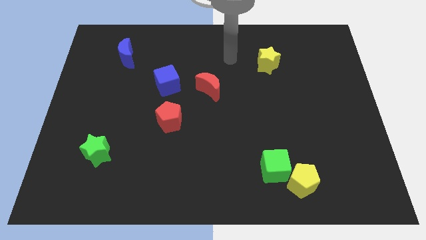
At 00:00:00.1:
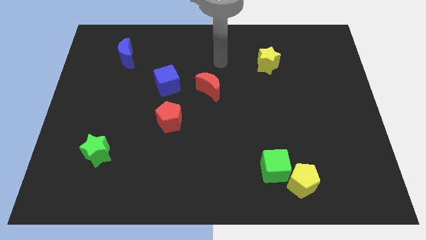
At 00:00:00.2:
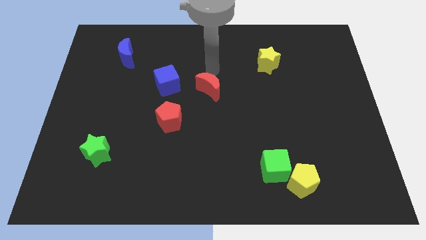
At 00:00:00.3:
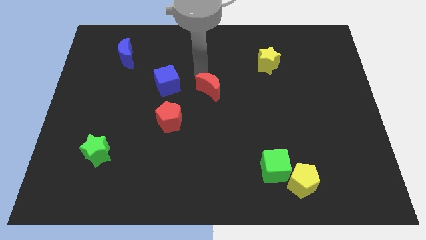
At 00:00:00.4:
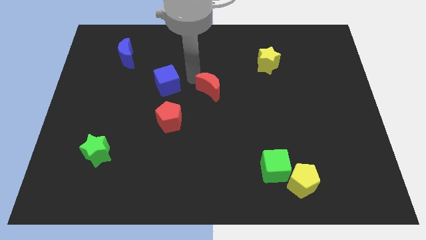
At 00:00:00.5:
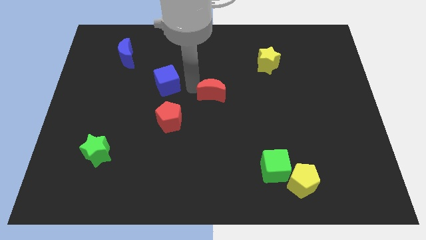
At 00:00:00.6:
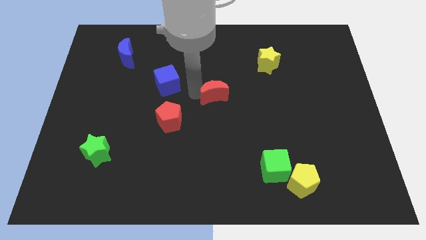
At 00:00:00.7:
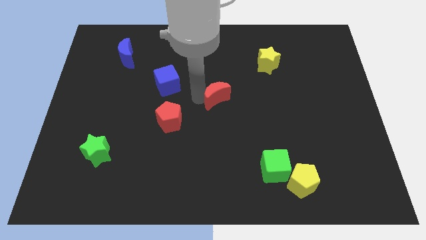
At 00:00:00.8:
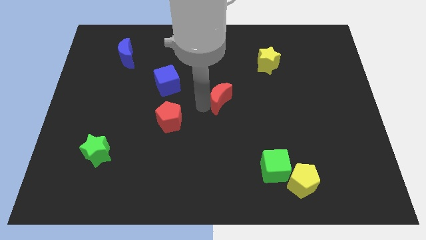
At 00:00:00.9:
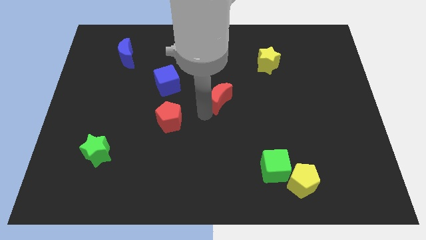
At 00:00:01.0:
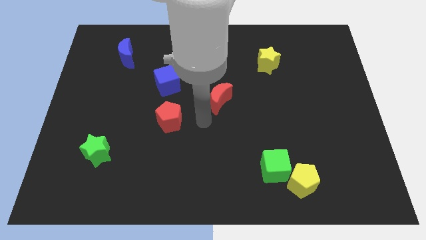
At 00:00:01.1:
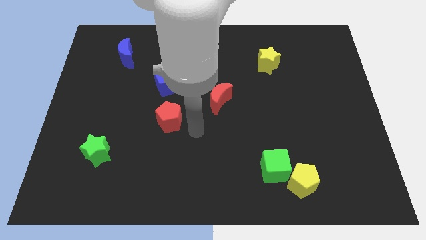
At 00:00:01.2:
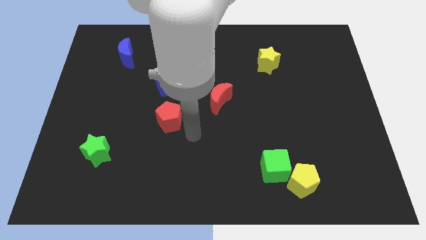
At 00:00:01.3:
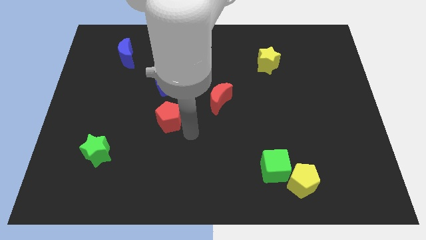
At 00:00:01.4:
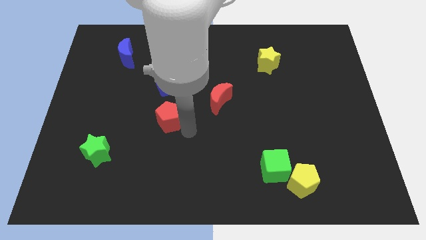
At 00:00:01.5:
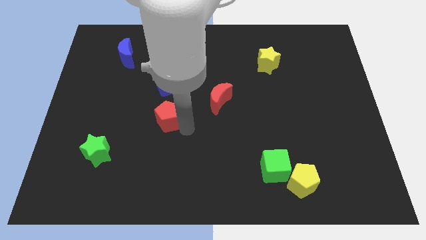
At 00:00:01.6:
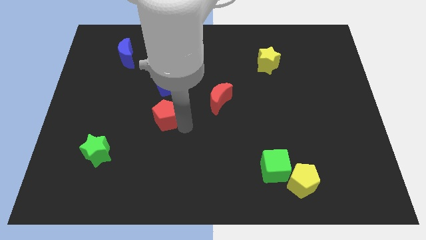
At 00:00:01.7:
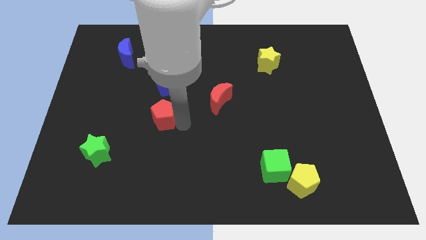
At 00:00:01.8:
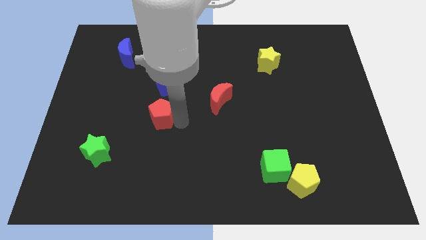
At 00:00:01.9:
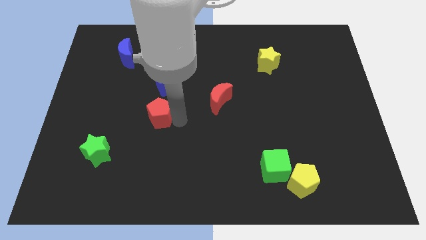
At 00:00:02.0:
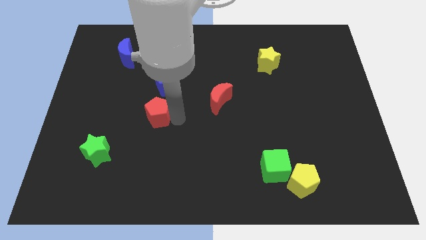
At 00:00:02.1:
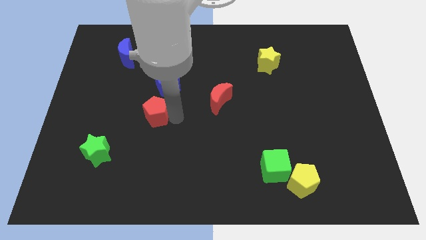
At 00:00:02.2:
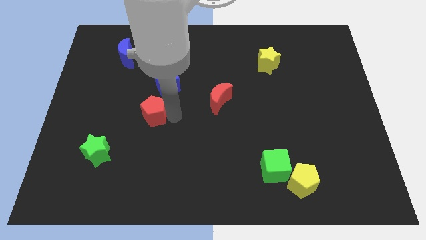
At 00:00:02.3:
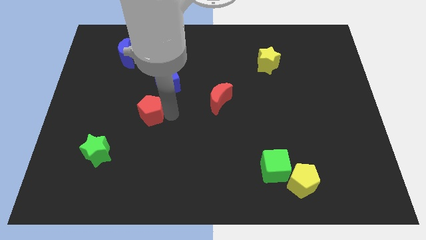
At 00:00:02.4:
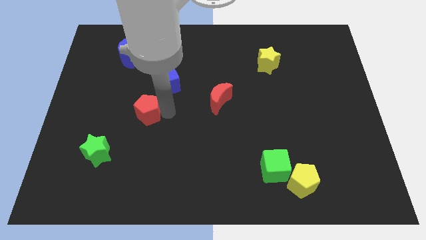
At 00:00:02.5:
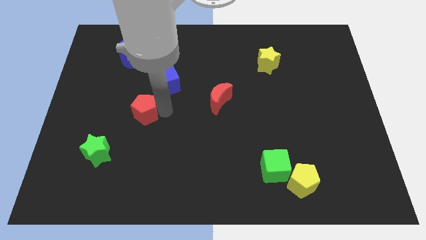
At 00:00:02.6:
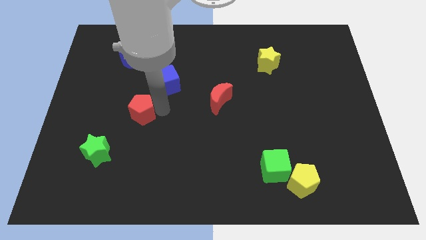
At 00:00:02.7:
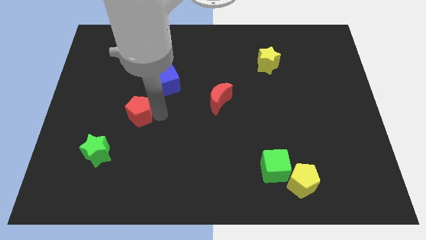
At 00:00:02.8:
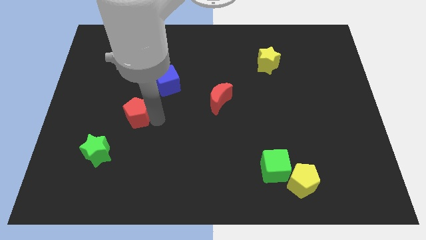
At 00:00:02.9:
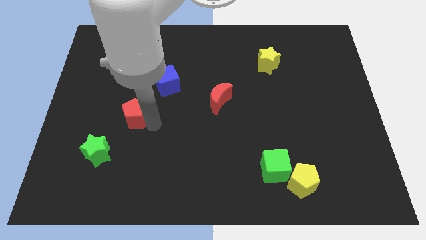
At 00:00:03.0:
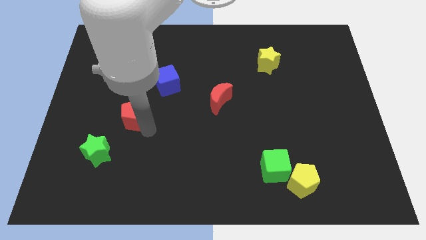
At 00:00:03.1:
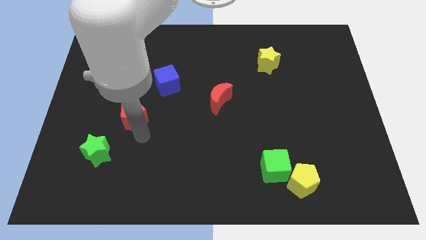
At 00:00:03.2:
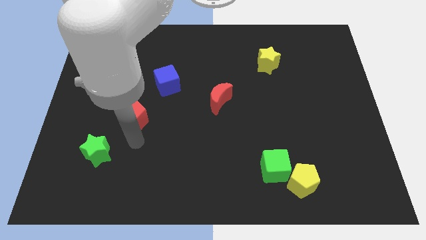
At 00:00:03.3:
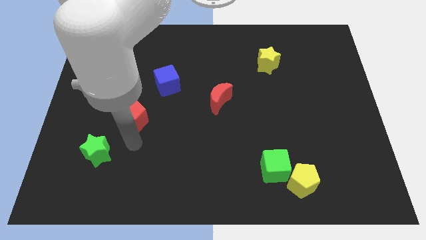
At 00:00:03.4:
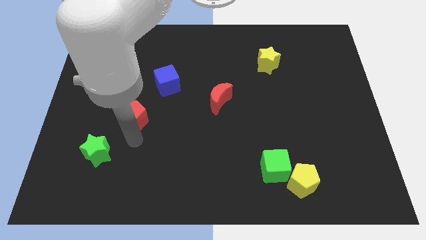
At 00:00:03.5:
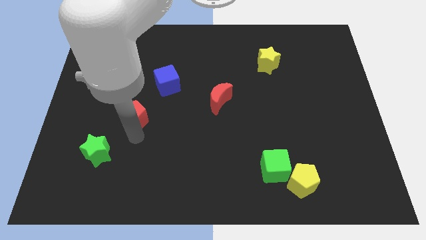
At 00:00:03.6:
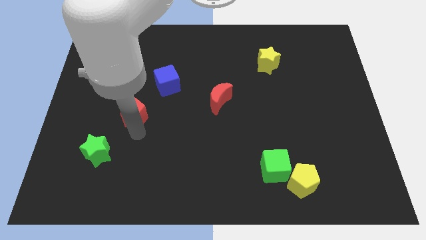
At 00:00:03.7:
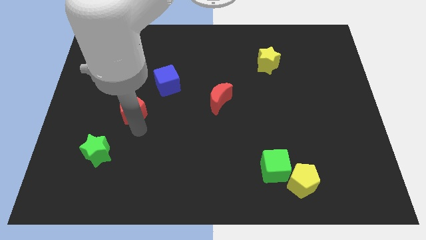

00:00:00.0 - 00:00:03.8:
move the red pentagon a little up and left diagonally

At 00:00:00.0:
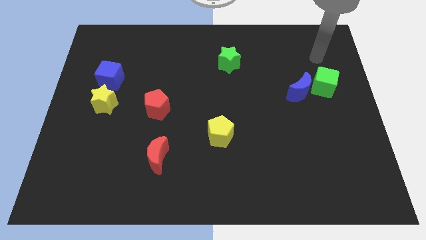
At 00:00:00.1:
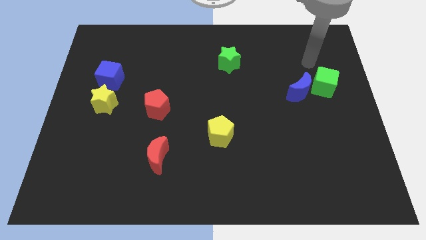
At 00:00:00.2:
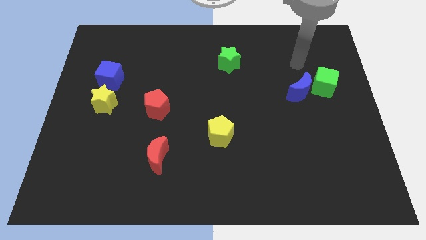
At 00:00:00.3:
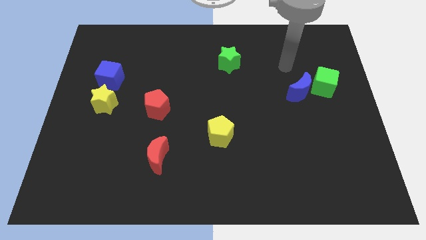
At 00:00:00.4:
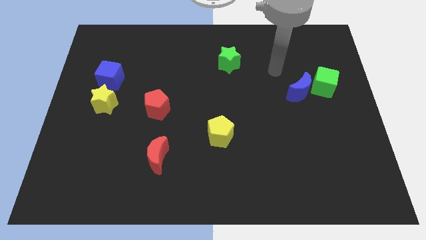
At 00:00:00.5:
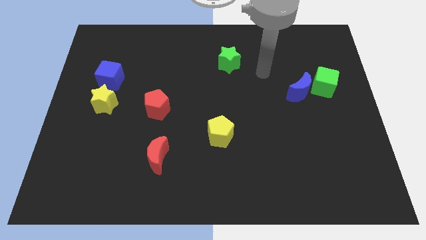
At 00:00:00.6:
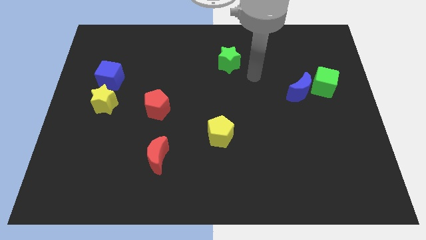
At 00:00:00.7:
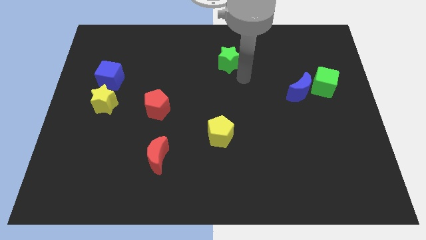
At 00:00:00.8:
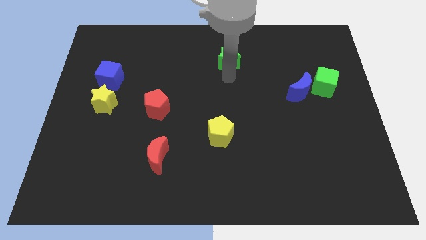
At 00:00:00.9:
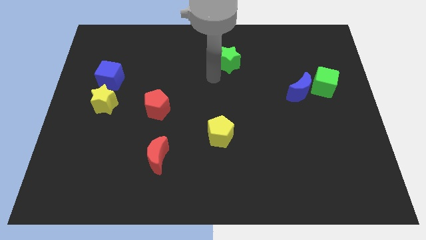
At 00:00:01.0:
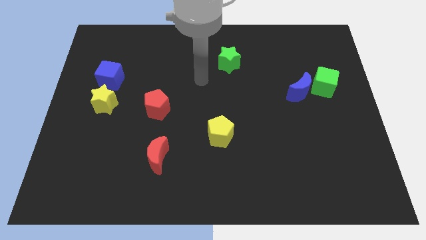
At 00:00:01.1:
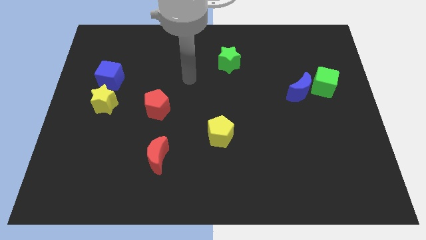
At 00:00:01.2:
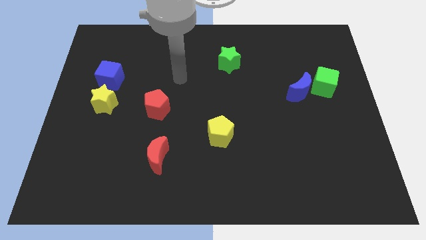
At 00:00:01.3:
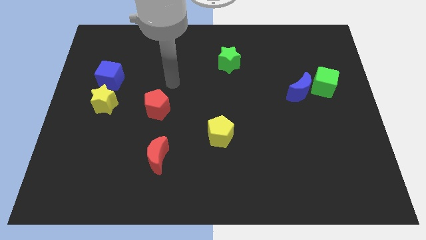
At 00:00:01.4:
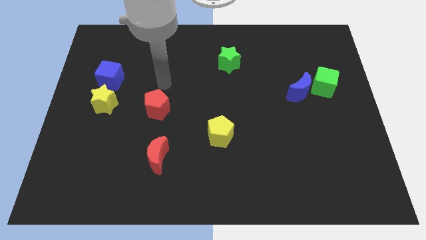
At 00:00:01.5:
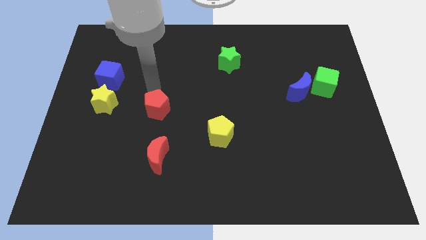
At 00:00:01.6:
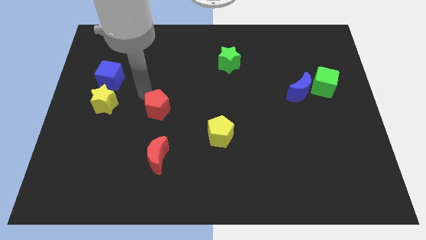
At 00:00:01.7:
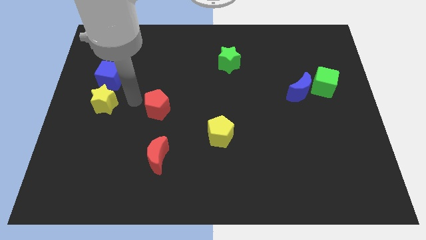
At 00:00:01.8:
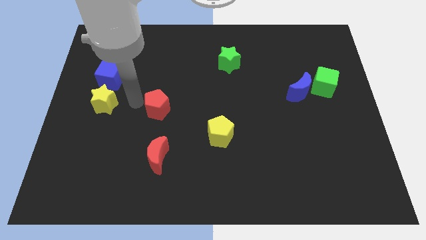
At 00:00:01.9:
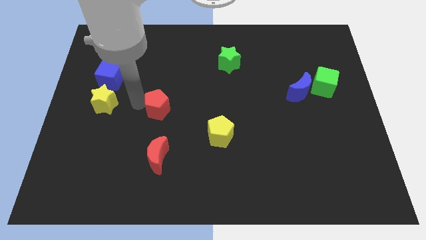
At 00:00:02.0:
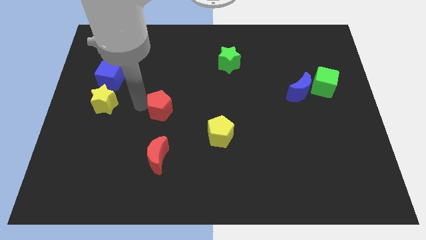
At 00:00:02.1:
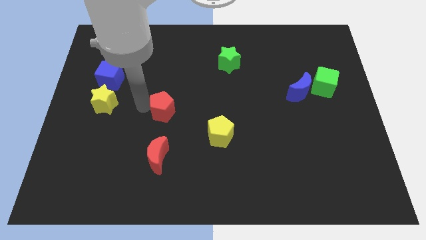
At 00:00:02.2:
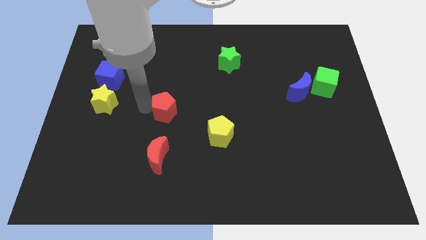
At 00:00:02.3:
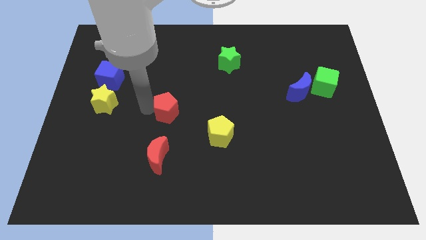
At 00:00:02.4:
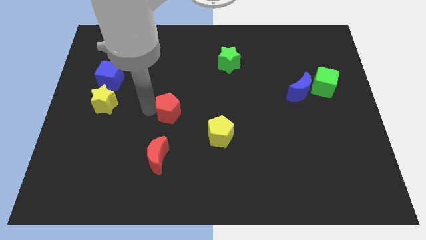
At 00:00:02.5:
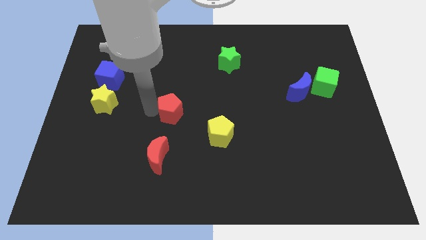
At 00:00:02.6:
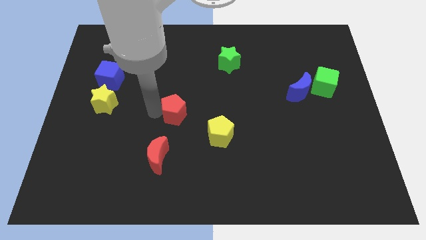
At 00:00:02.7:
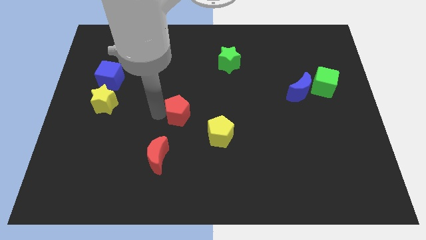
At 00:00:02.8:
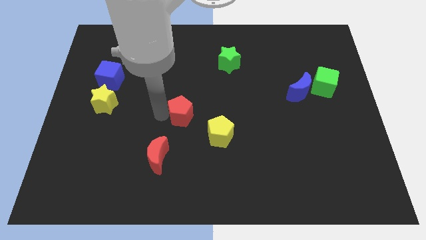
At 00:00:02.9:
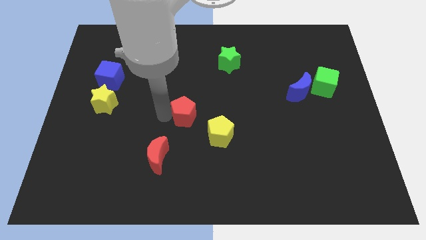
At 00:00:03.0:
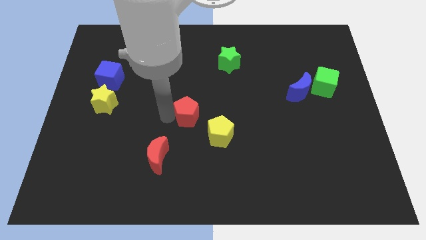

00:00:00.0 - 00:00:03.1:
slightly move the red pentagon to the right

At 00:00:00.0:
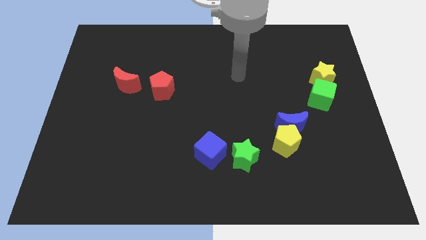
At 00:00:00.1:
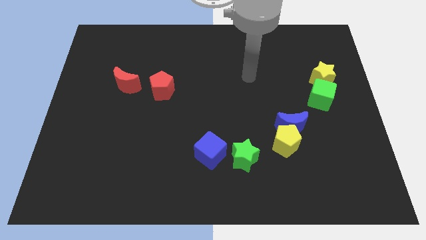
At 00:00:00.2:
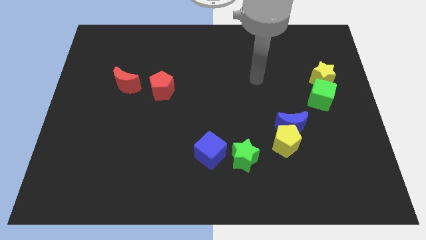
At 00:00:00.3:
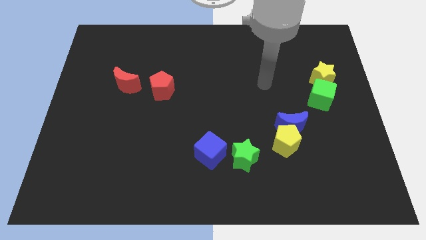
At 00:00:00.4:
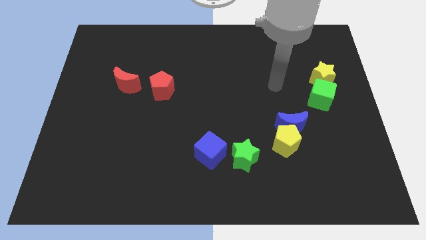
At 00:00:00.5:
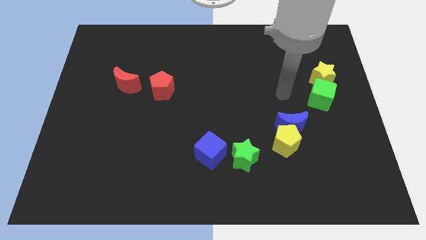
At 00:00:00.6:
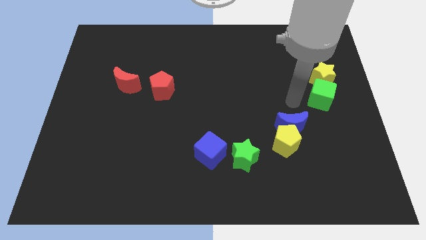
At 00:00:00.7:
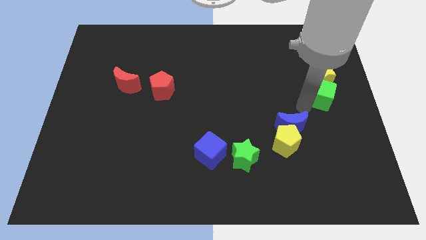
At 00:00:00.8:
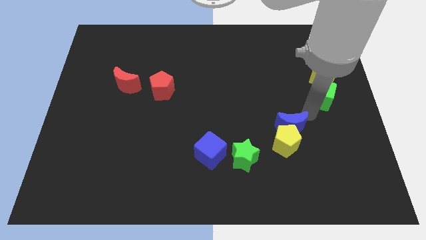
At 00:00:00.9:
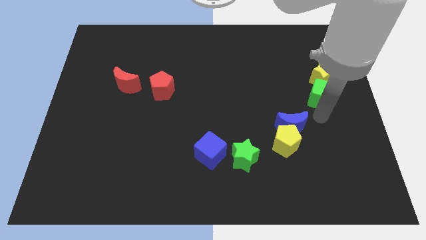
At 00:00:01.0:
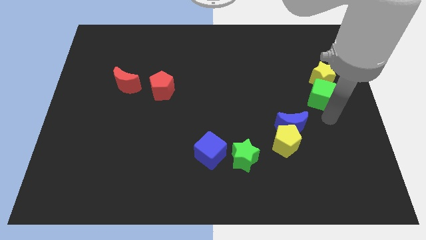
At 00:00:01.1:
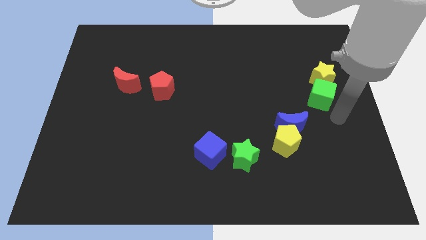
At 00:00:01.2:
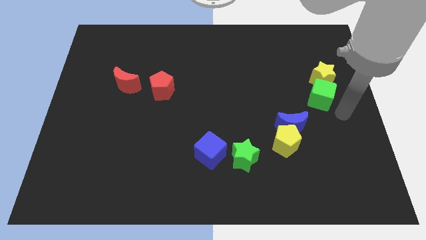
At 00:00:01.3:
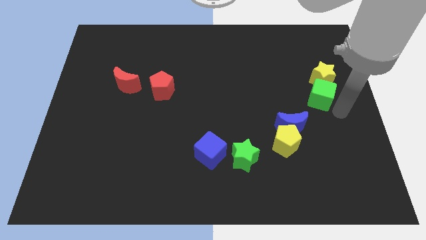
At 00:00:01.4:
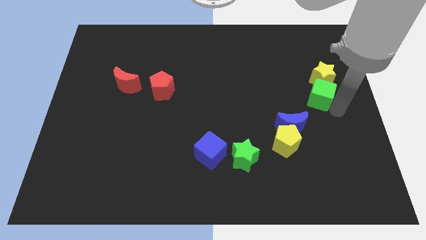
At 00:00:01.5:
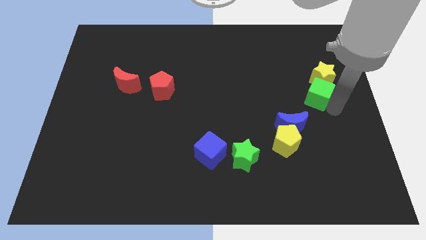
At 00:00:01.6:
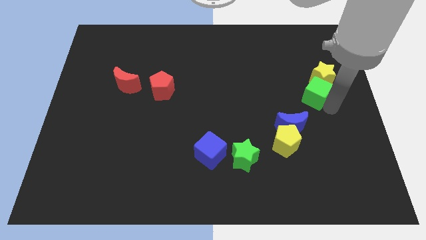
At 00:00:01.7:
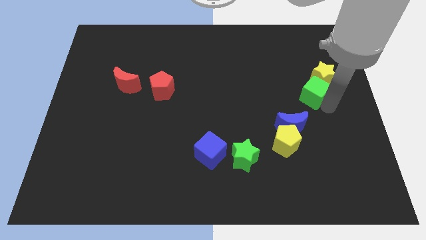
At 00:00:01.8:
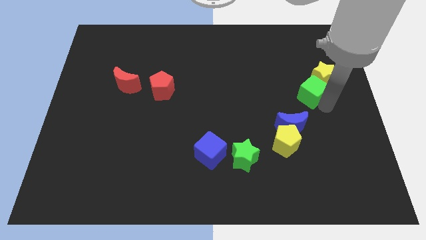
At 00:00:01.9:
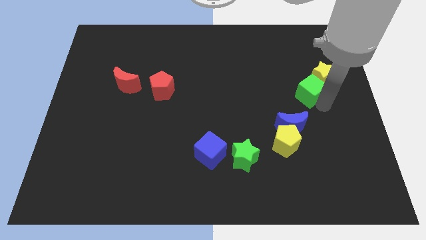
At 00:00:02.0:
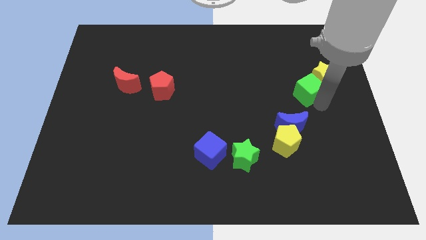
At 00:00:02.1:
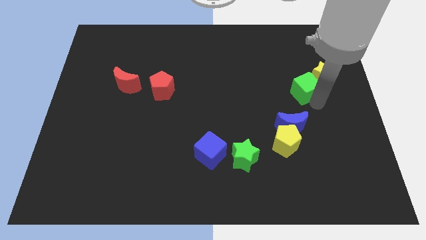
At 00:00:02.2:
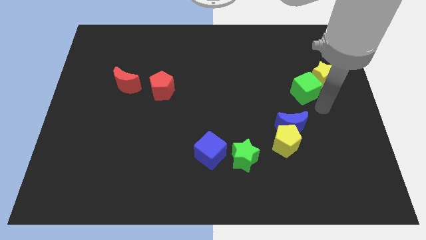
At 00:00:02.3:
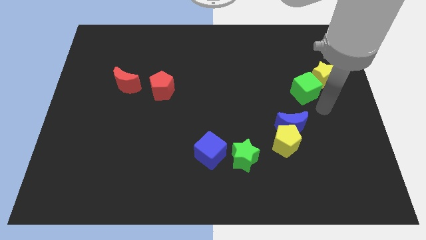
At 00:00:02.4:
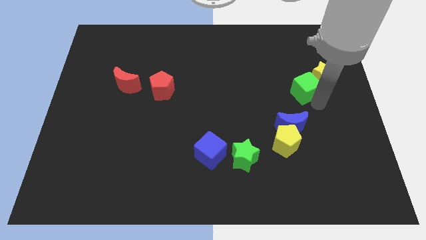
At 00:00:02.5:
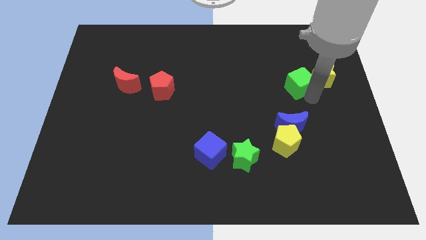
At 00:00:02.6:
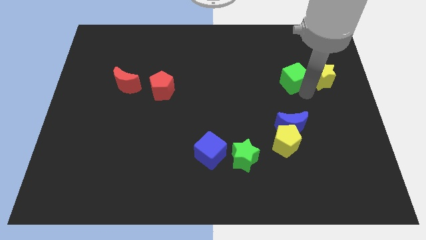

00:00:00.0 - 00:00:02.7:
slide the green cube slightly diagonally up and left
